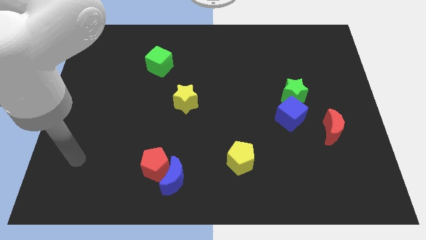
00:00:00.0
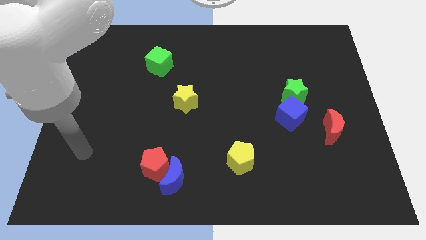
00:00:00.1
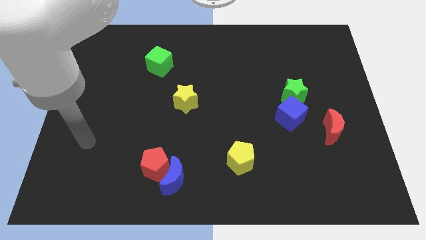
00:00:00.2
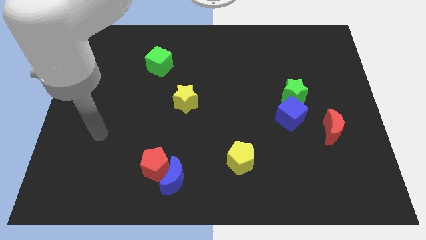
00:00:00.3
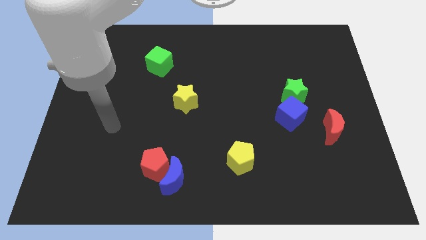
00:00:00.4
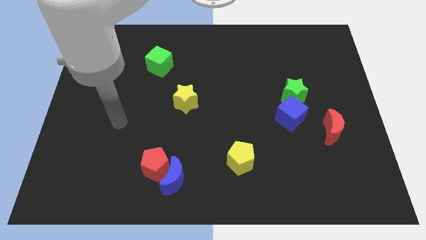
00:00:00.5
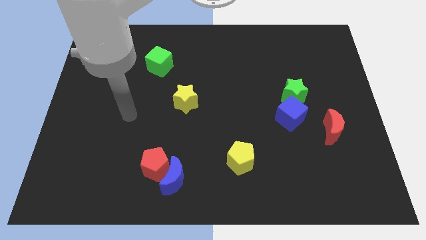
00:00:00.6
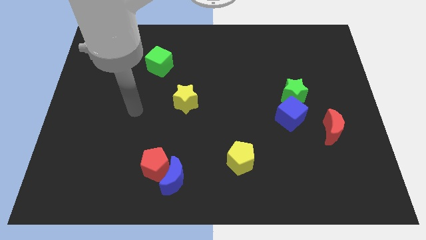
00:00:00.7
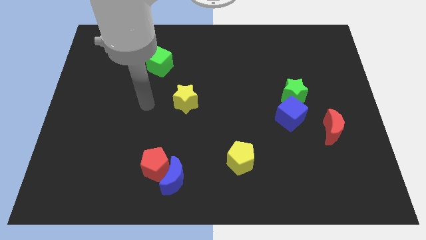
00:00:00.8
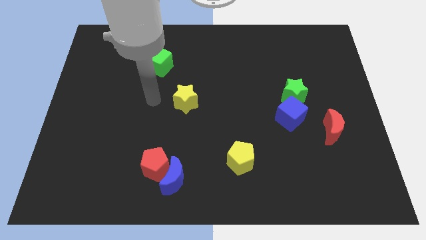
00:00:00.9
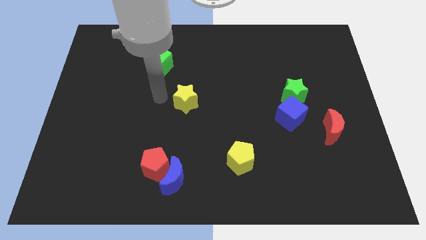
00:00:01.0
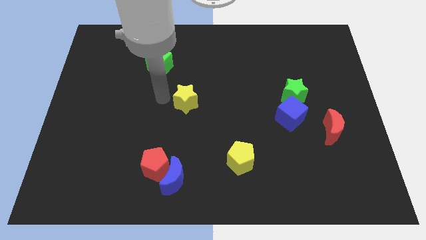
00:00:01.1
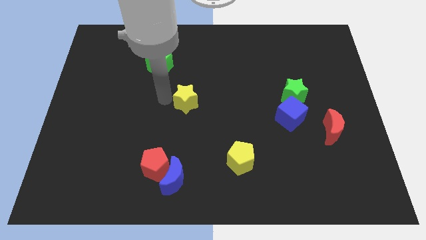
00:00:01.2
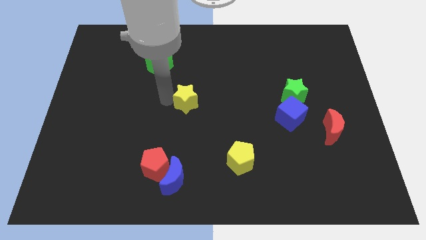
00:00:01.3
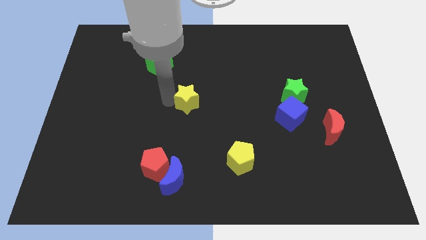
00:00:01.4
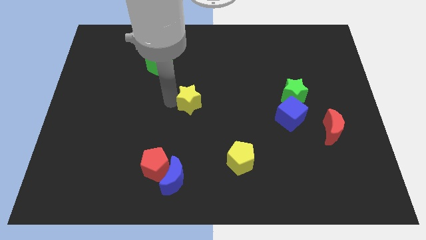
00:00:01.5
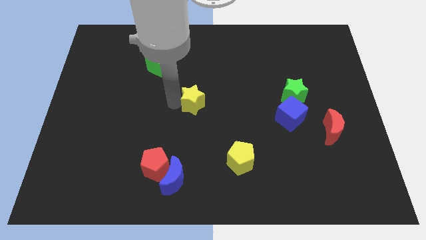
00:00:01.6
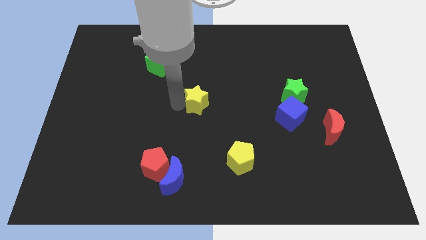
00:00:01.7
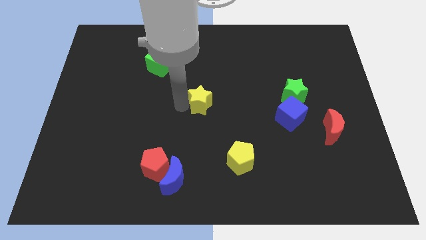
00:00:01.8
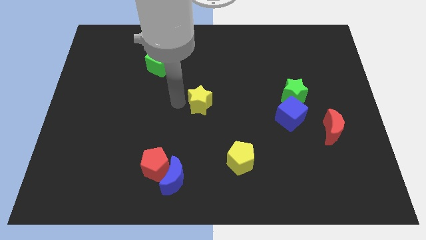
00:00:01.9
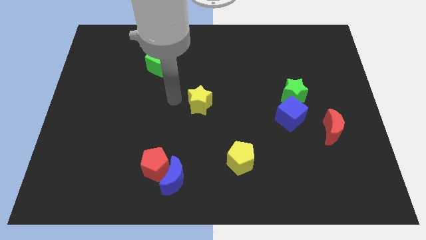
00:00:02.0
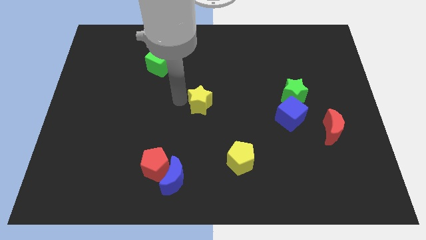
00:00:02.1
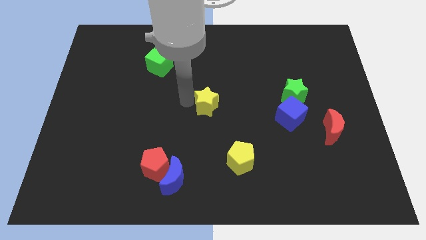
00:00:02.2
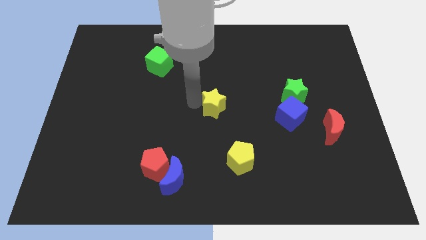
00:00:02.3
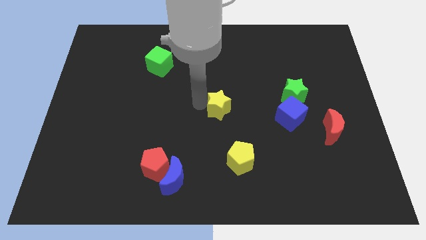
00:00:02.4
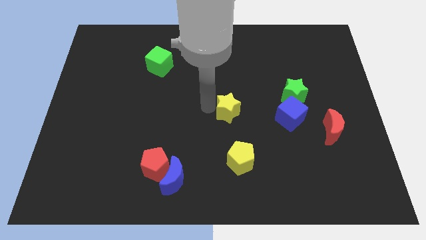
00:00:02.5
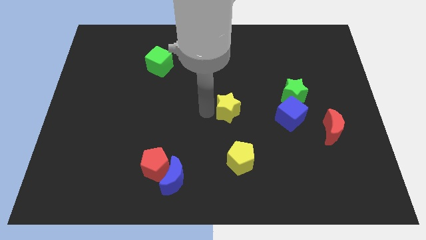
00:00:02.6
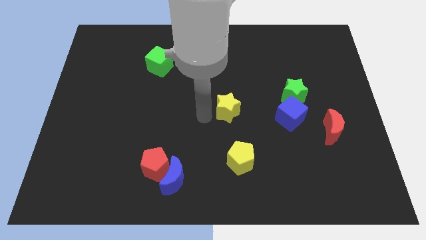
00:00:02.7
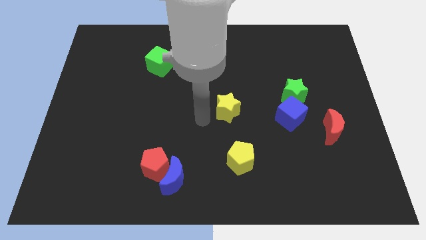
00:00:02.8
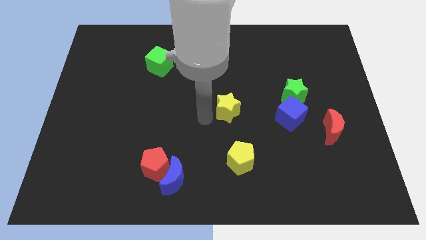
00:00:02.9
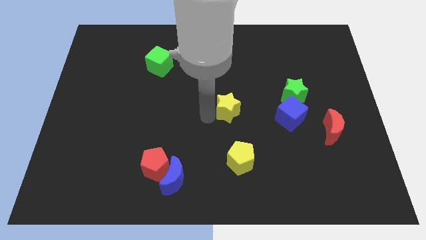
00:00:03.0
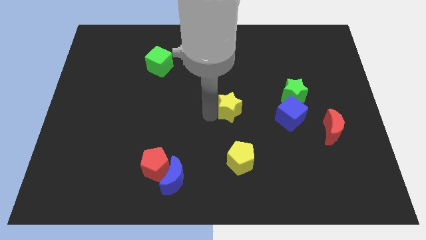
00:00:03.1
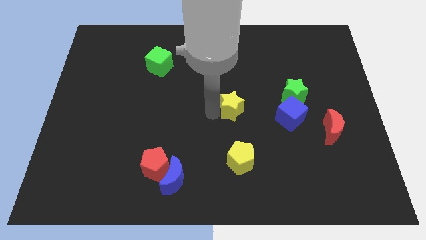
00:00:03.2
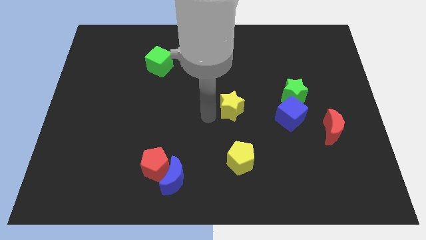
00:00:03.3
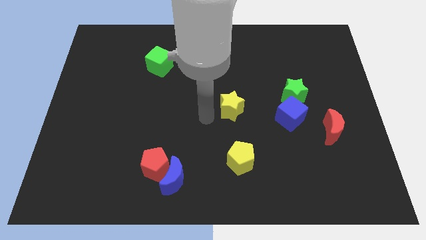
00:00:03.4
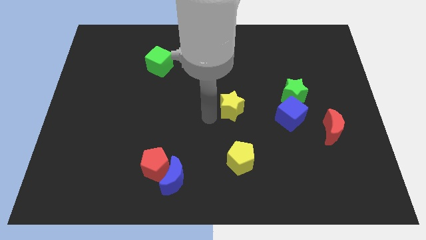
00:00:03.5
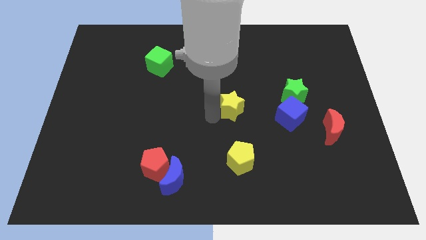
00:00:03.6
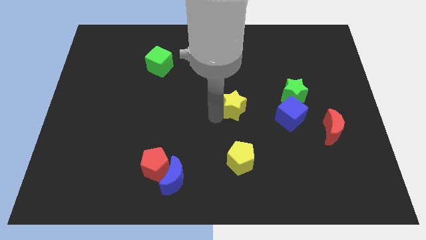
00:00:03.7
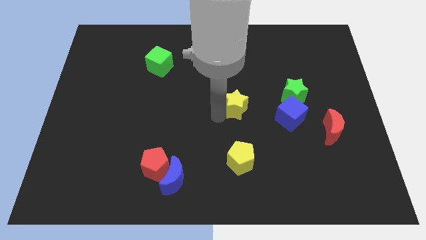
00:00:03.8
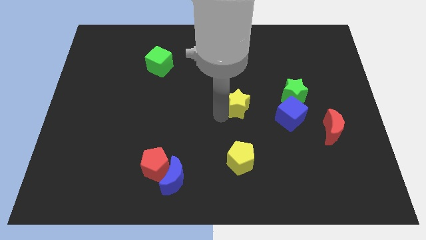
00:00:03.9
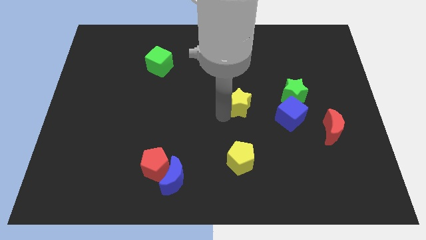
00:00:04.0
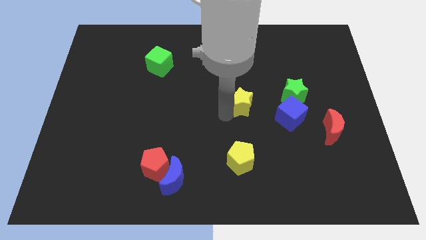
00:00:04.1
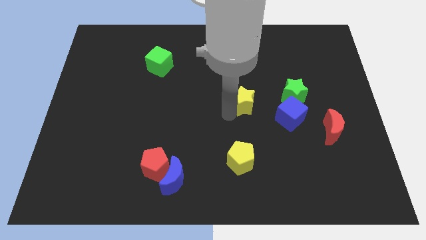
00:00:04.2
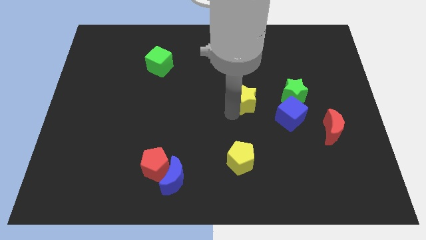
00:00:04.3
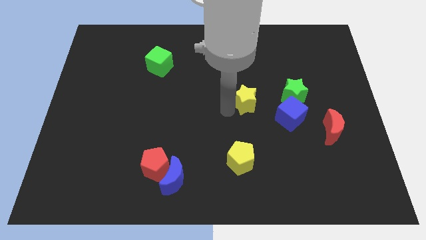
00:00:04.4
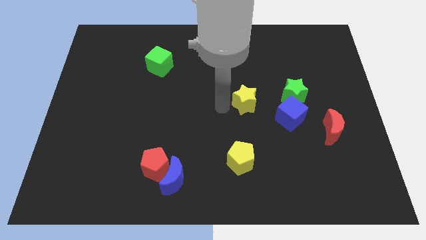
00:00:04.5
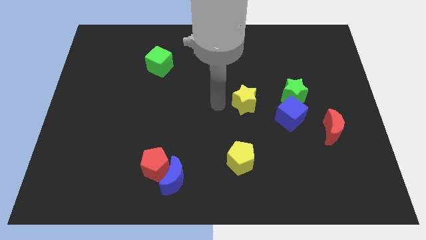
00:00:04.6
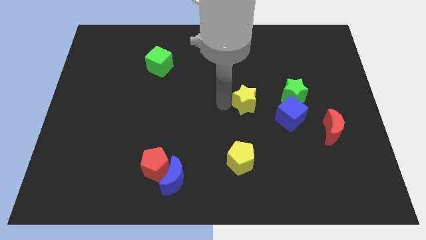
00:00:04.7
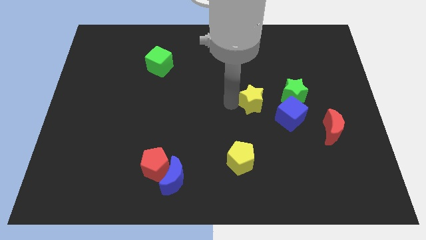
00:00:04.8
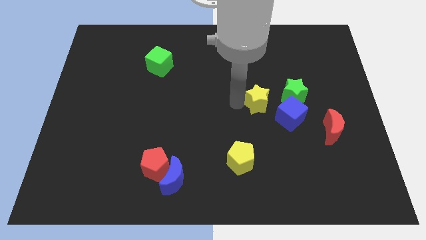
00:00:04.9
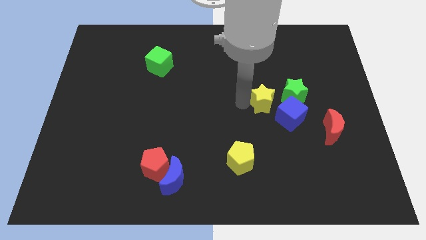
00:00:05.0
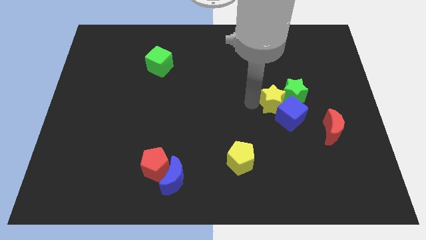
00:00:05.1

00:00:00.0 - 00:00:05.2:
move the yellow star close to the green star
